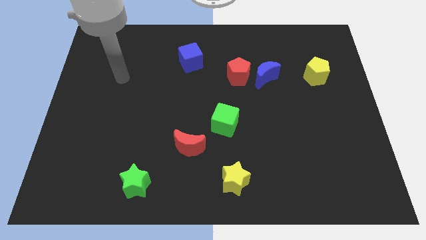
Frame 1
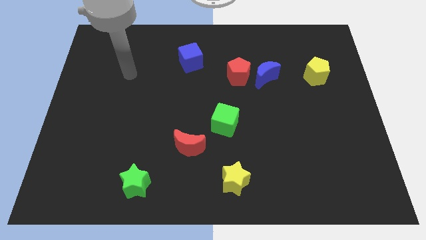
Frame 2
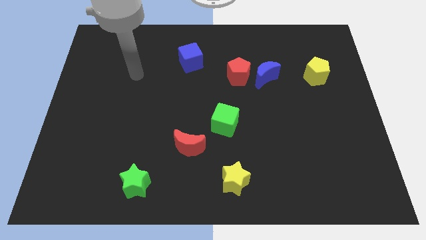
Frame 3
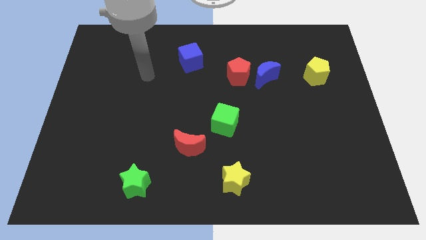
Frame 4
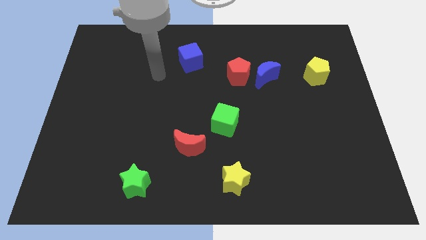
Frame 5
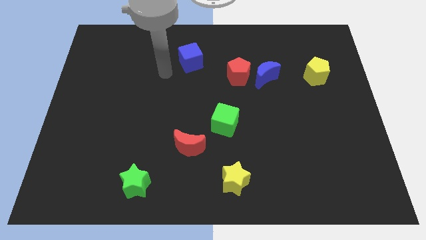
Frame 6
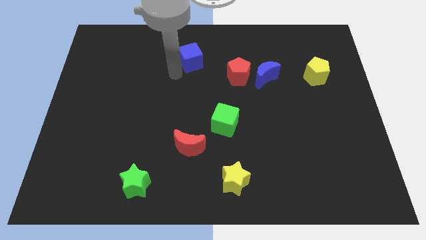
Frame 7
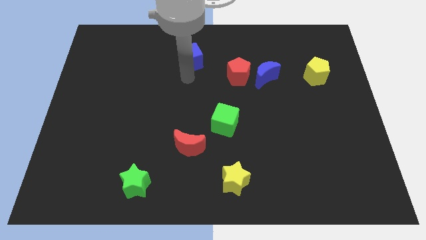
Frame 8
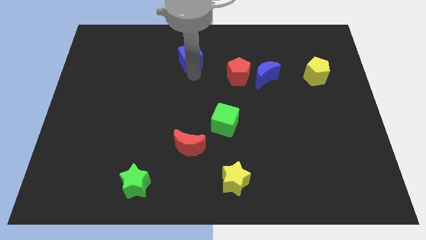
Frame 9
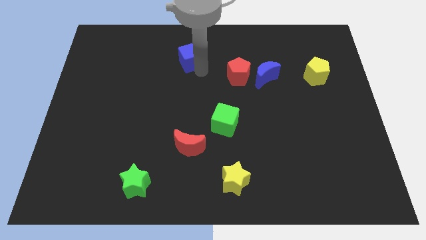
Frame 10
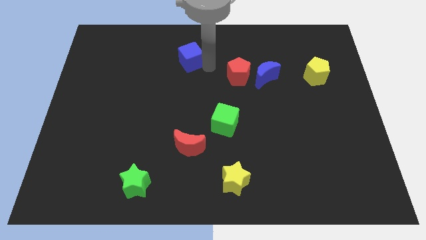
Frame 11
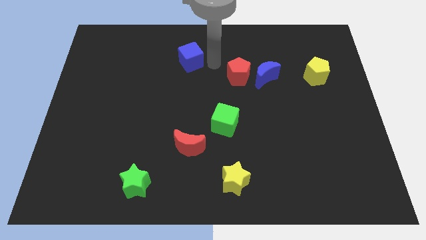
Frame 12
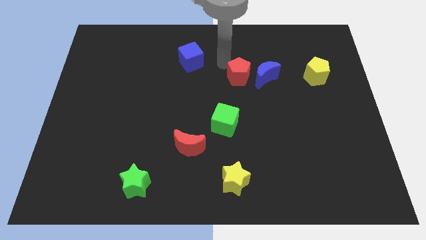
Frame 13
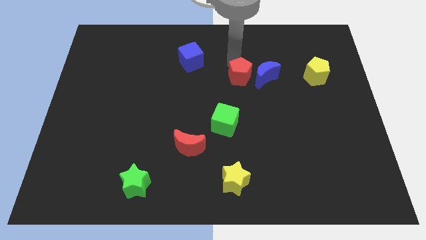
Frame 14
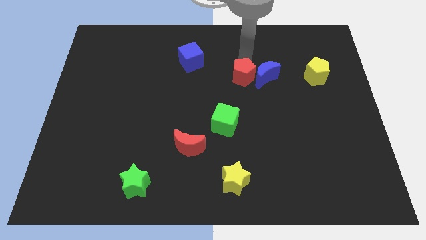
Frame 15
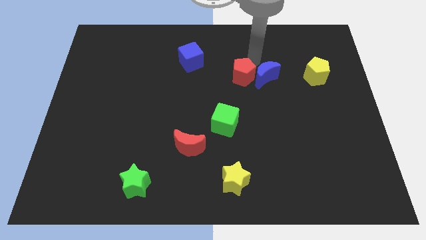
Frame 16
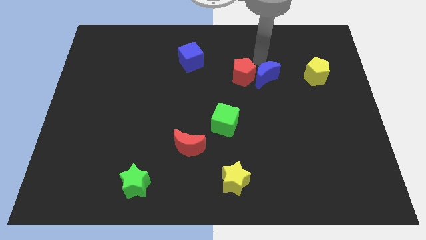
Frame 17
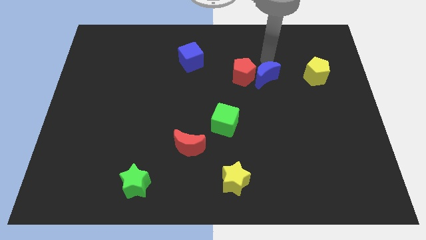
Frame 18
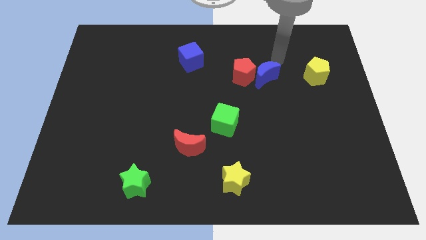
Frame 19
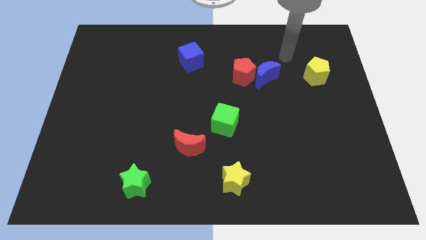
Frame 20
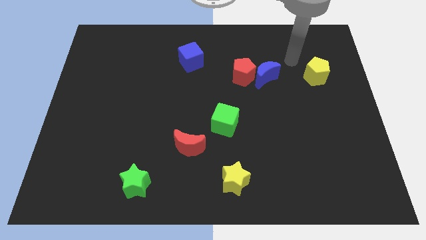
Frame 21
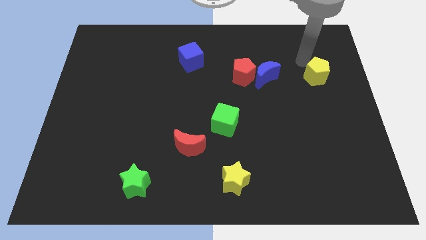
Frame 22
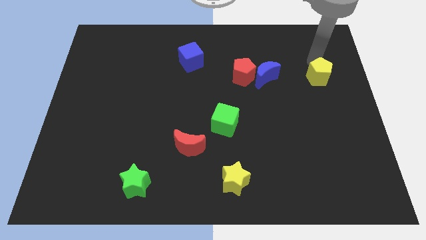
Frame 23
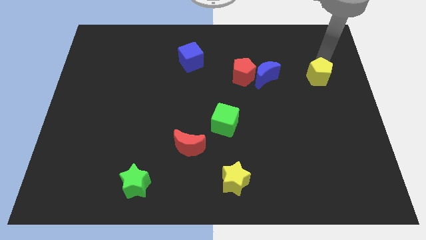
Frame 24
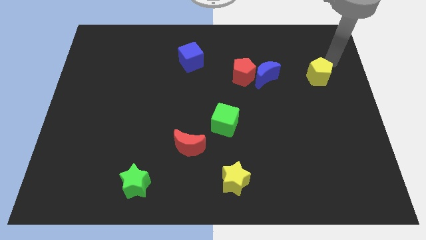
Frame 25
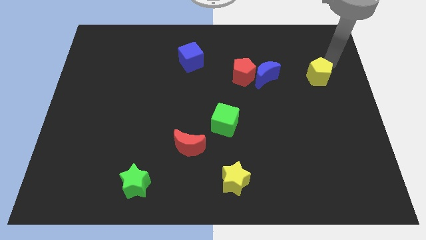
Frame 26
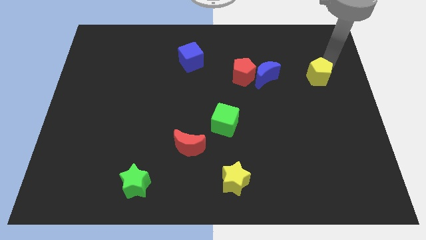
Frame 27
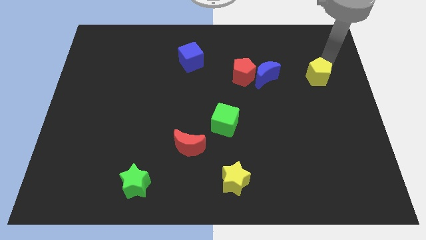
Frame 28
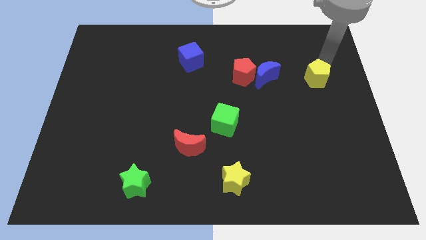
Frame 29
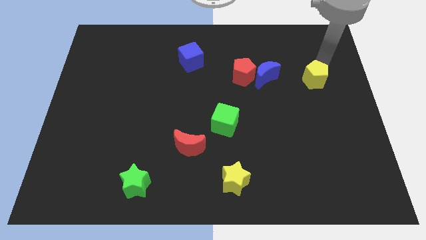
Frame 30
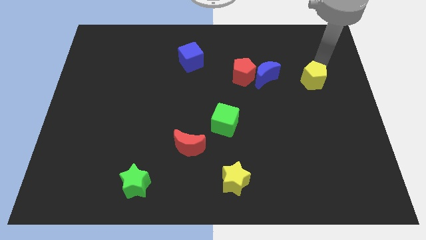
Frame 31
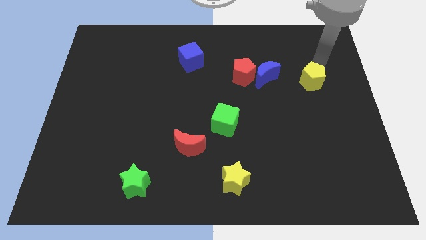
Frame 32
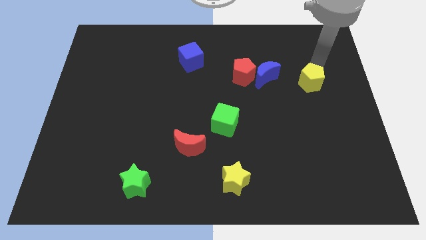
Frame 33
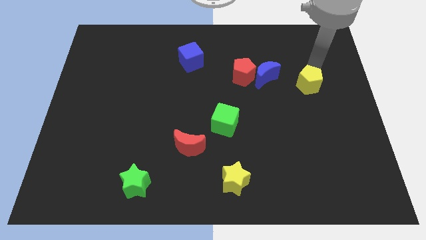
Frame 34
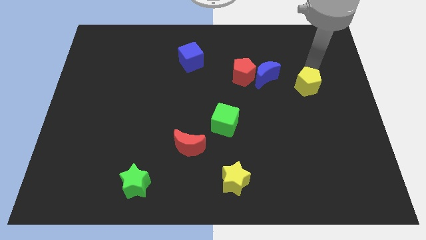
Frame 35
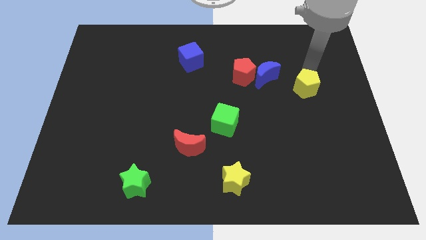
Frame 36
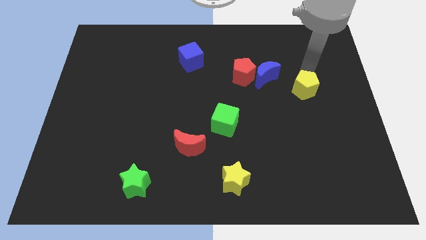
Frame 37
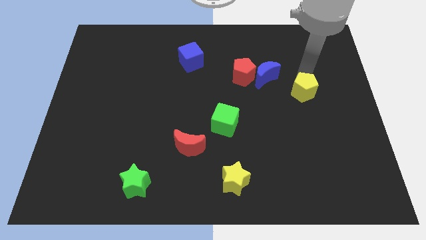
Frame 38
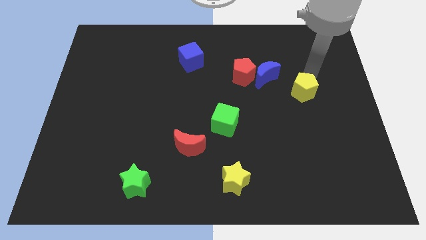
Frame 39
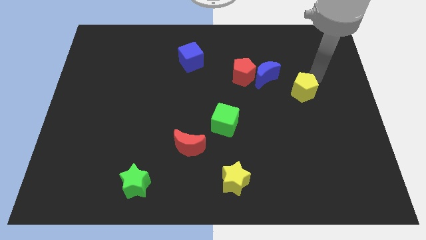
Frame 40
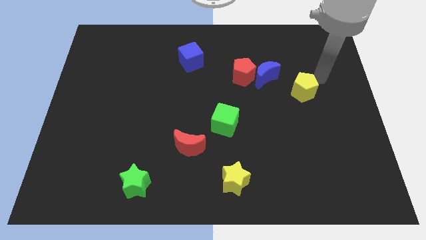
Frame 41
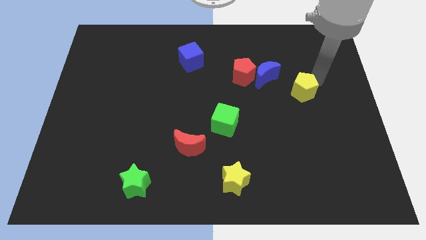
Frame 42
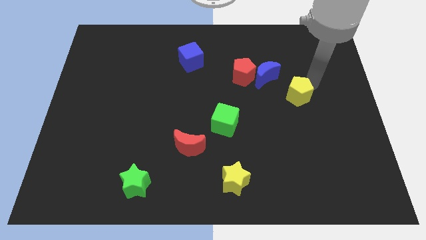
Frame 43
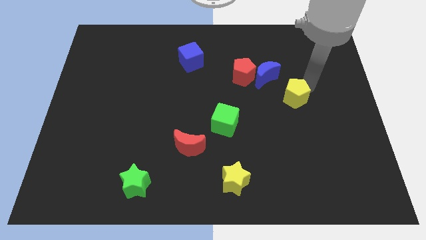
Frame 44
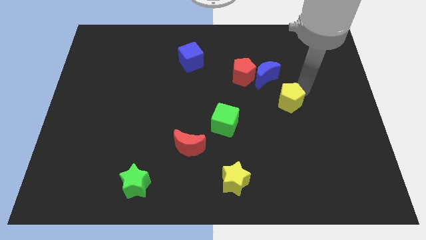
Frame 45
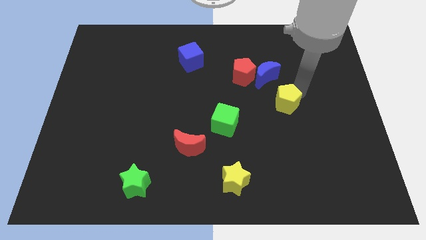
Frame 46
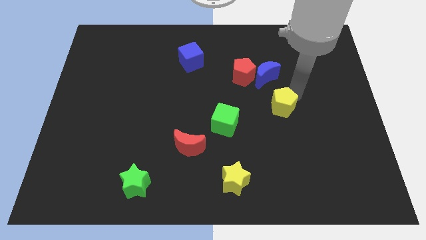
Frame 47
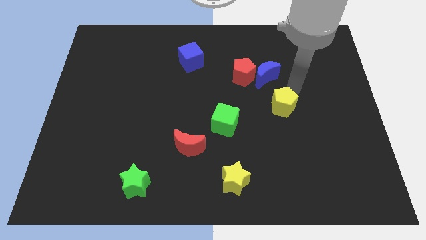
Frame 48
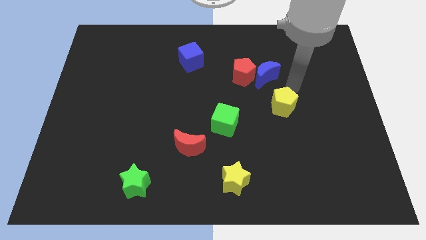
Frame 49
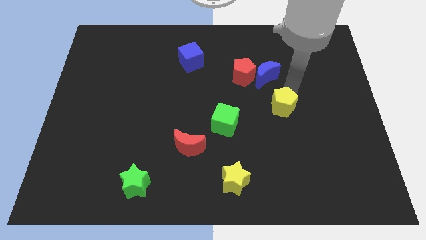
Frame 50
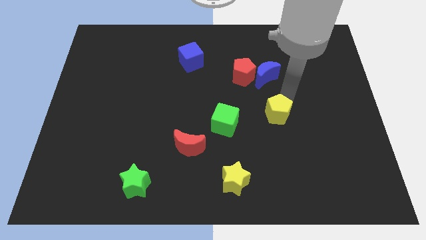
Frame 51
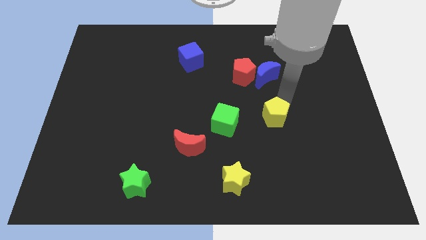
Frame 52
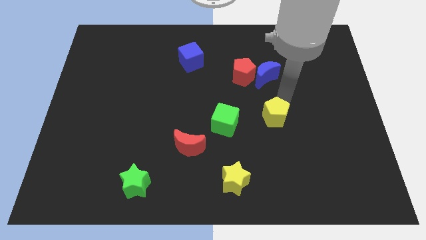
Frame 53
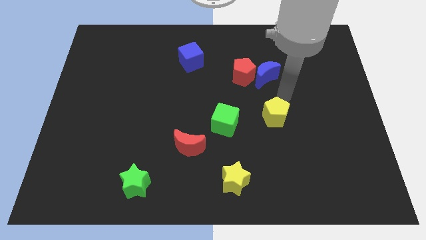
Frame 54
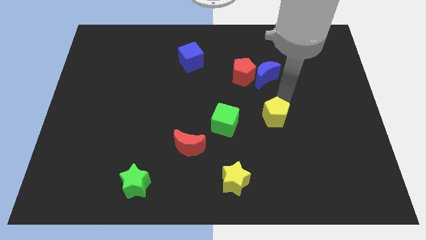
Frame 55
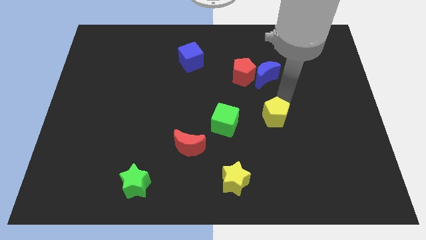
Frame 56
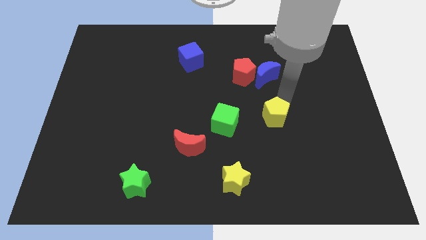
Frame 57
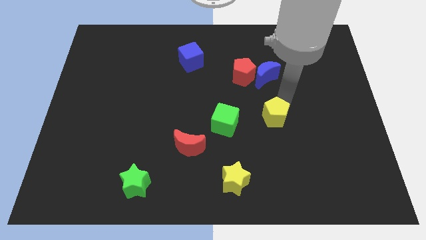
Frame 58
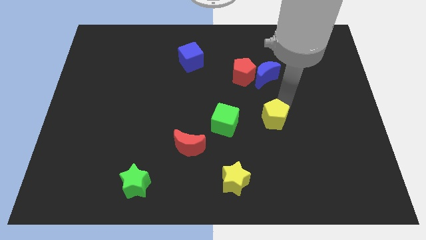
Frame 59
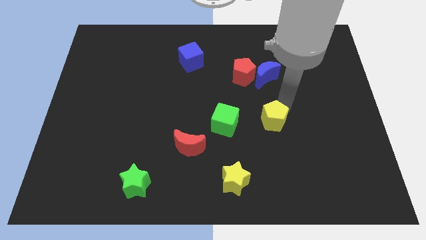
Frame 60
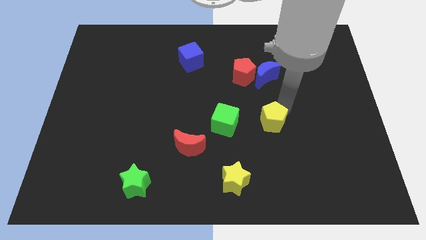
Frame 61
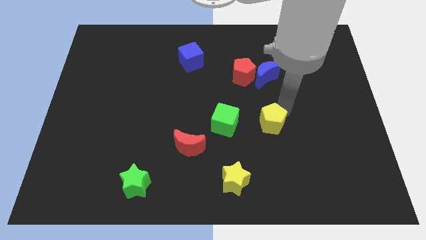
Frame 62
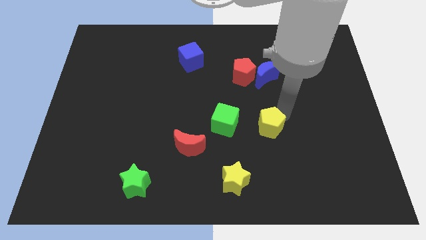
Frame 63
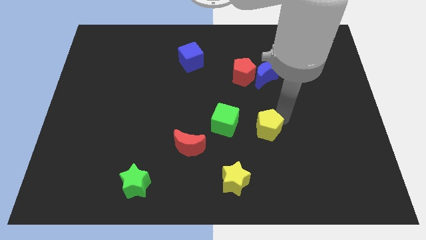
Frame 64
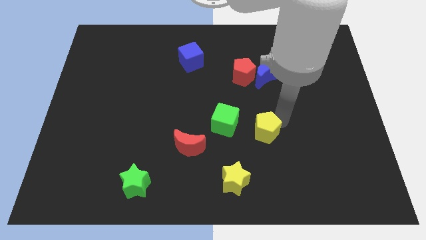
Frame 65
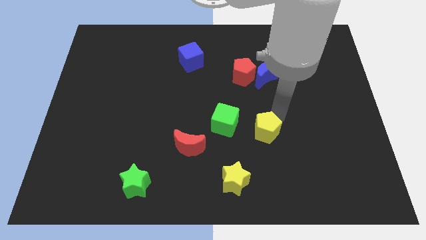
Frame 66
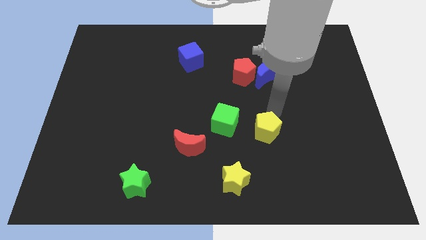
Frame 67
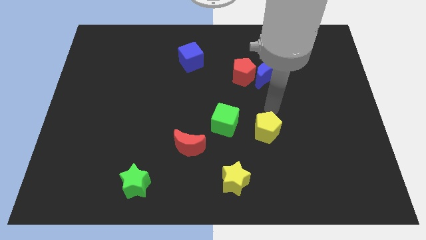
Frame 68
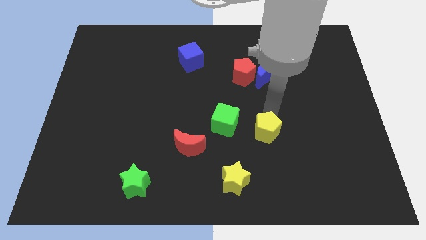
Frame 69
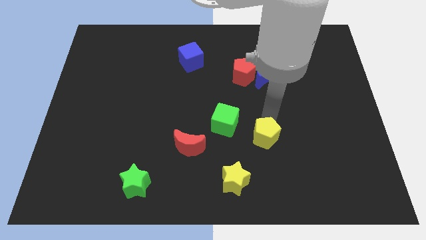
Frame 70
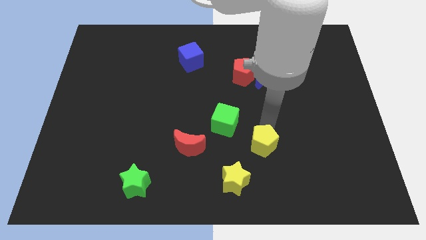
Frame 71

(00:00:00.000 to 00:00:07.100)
move the yellow pentagon to the top right of the yellow star
